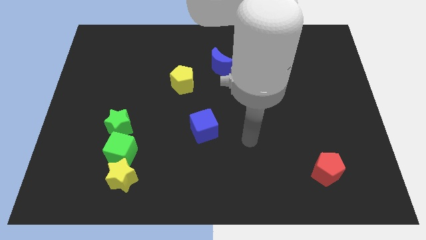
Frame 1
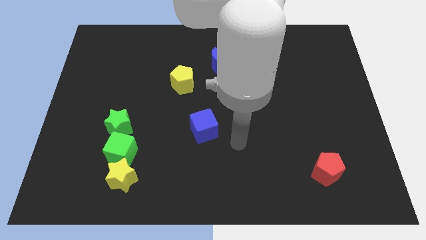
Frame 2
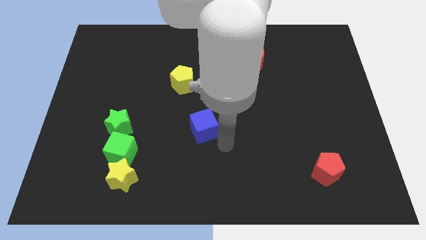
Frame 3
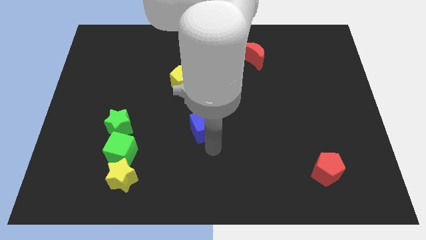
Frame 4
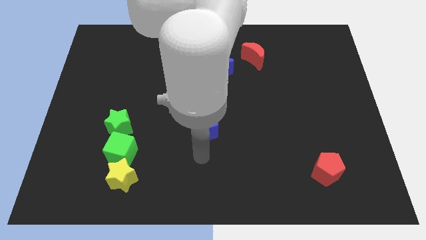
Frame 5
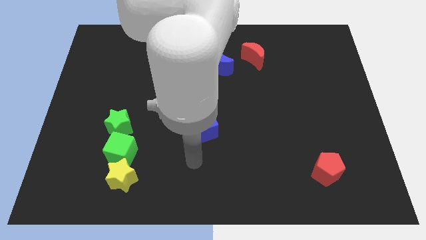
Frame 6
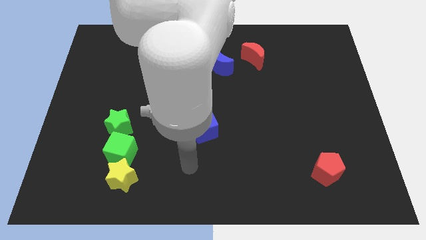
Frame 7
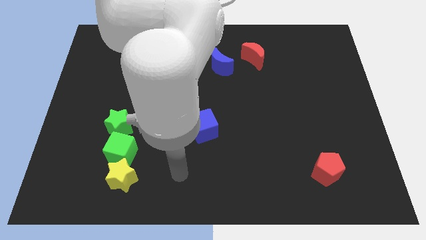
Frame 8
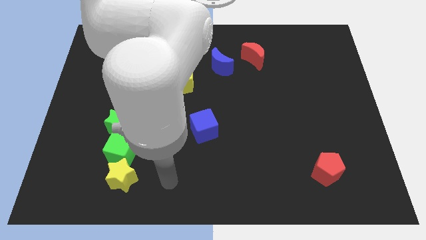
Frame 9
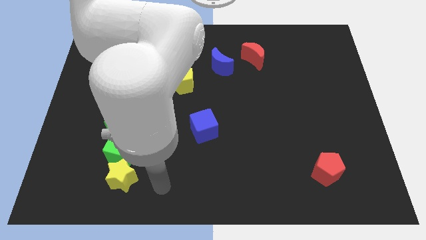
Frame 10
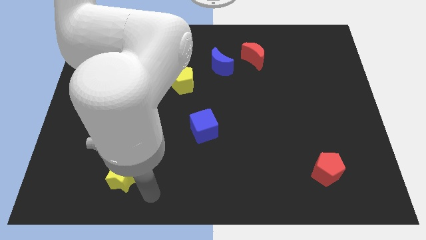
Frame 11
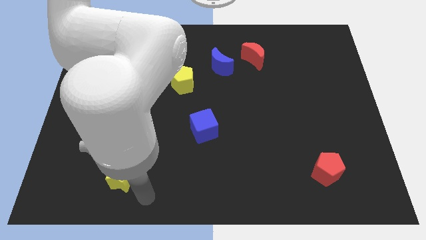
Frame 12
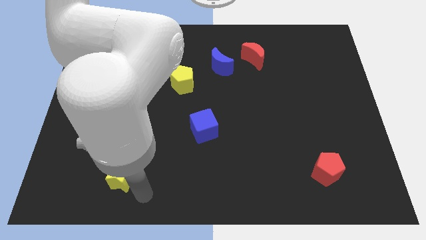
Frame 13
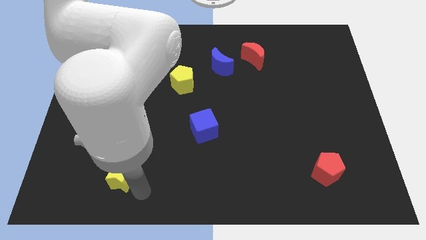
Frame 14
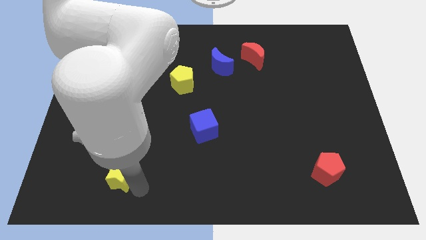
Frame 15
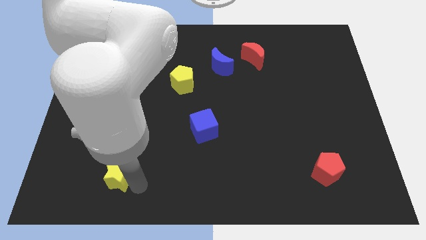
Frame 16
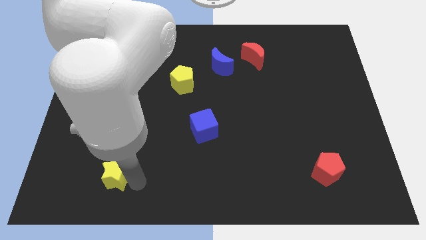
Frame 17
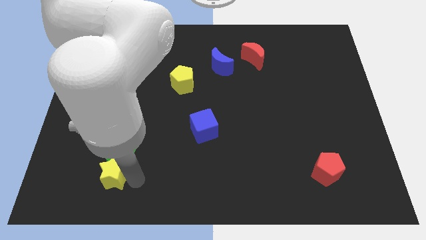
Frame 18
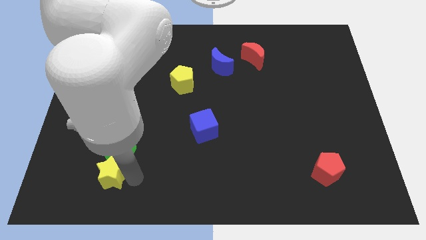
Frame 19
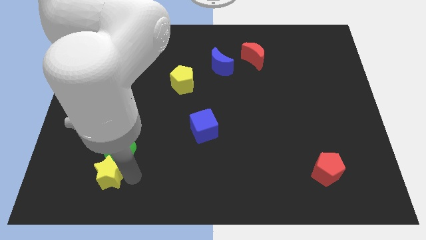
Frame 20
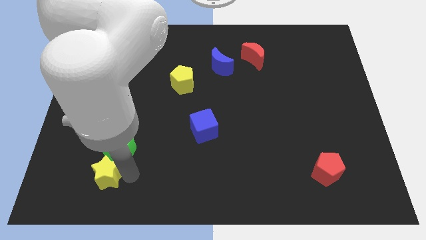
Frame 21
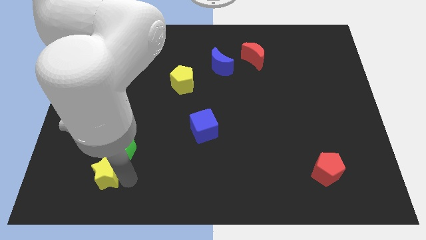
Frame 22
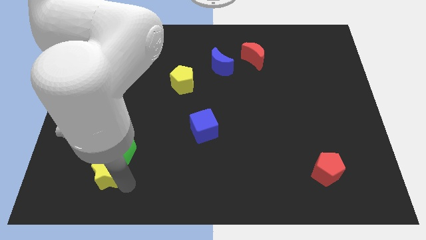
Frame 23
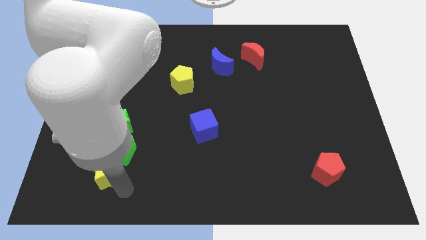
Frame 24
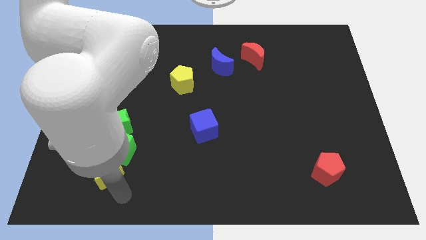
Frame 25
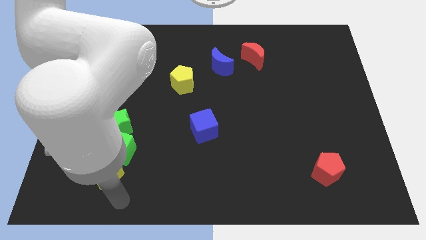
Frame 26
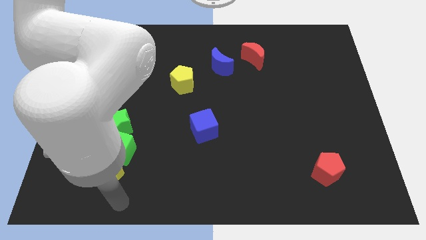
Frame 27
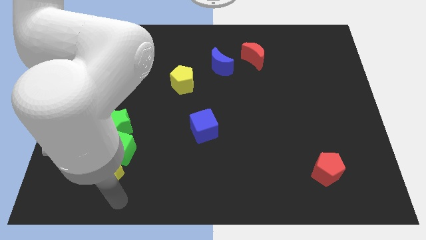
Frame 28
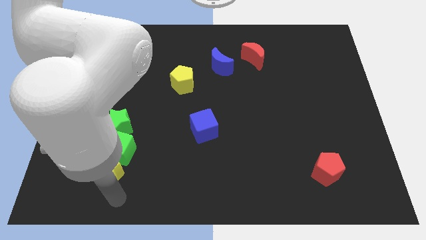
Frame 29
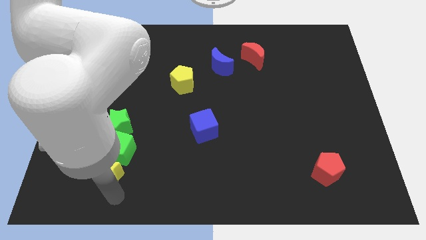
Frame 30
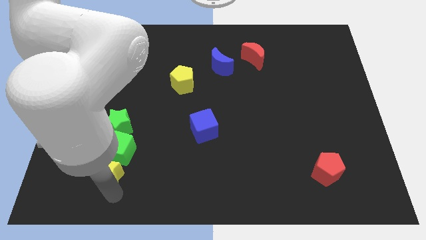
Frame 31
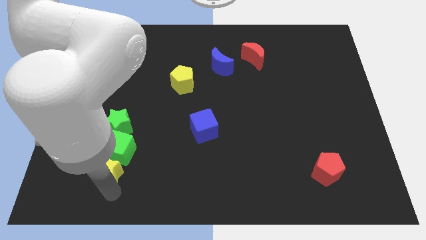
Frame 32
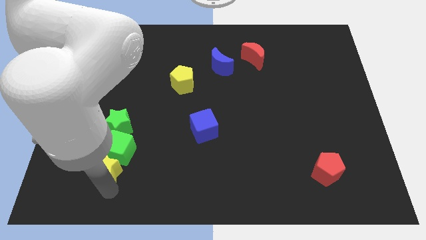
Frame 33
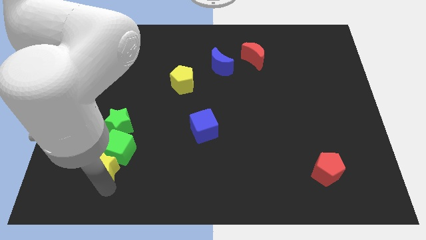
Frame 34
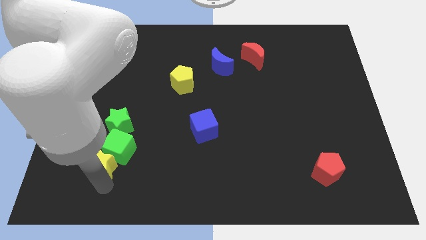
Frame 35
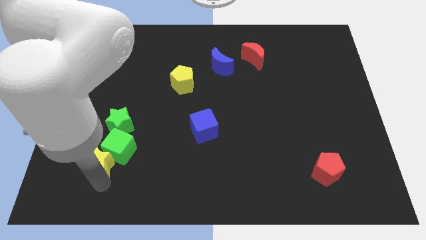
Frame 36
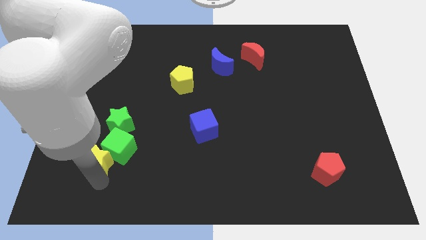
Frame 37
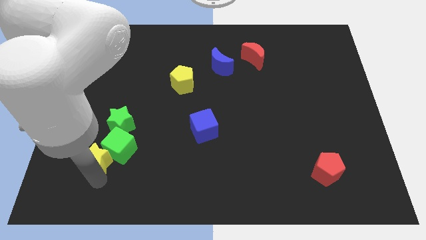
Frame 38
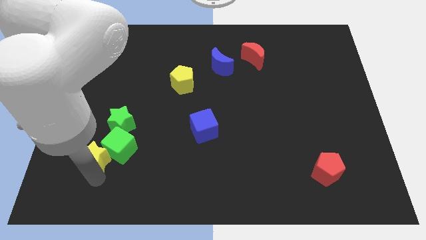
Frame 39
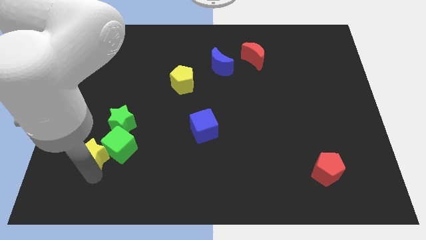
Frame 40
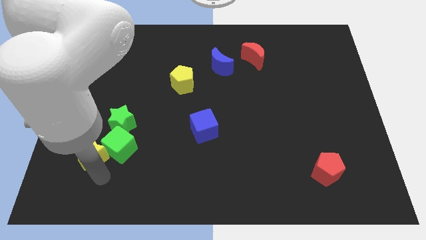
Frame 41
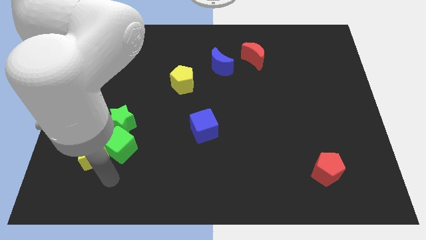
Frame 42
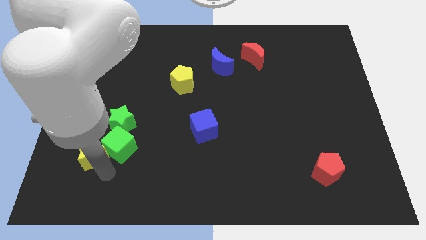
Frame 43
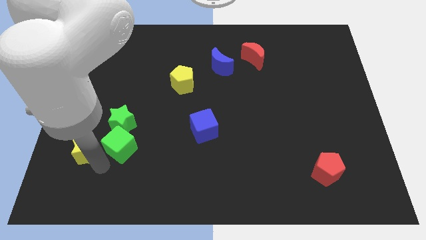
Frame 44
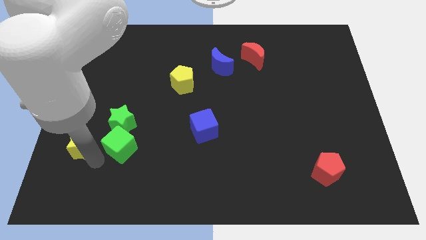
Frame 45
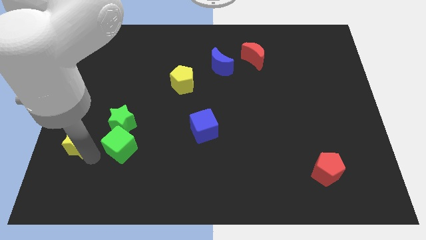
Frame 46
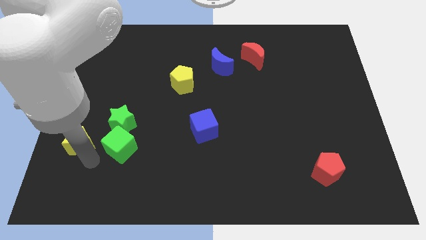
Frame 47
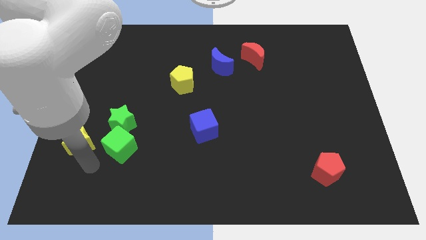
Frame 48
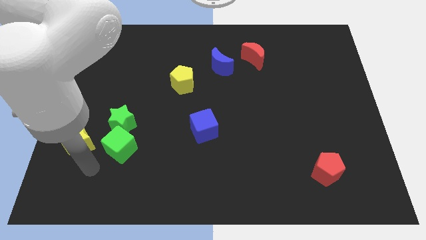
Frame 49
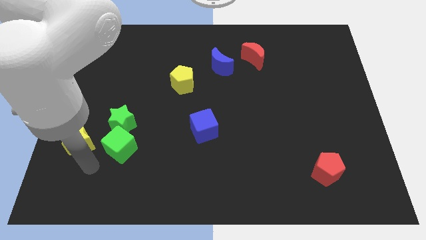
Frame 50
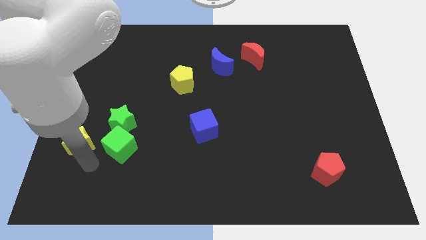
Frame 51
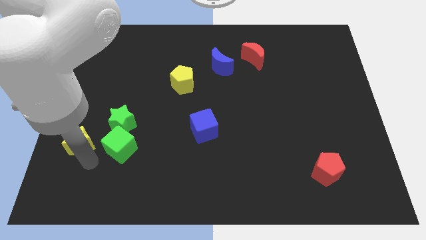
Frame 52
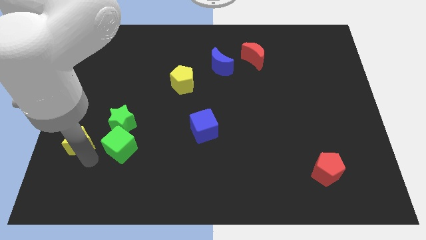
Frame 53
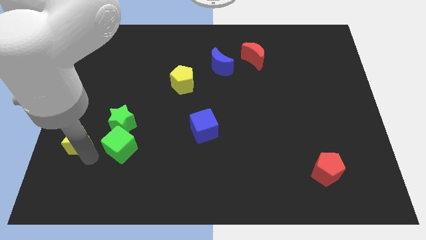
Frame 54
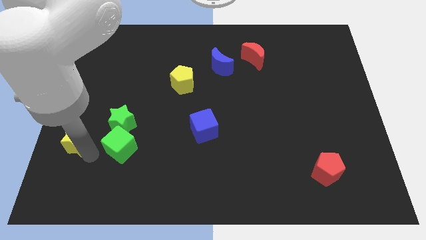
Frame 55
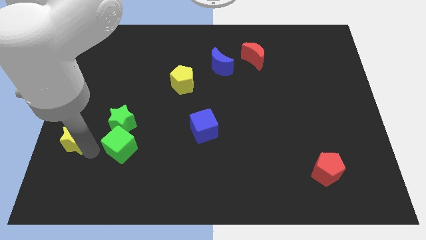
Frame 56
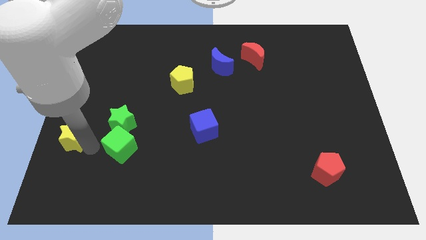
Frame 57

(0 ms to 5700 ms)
put the yellow star to the left side
